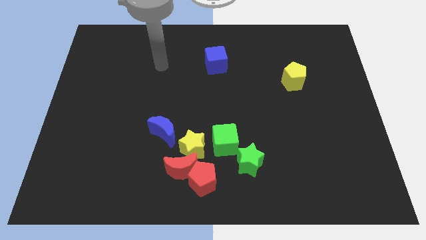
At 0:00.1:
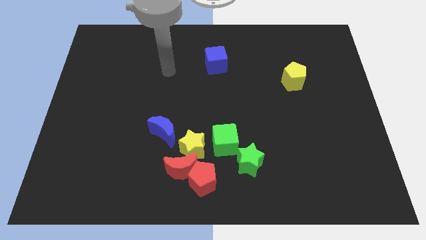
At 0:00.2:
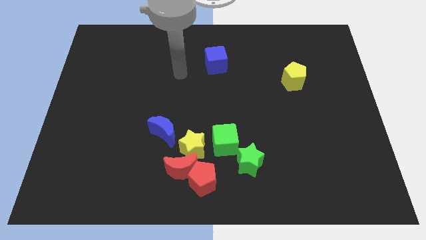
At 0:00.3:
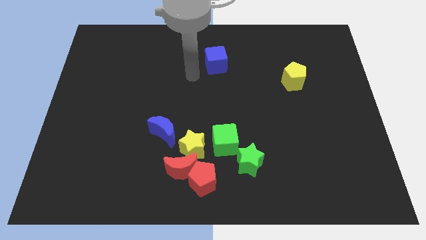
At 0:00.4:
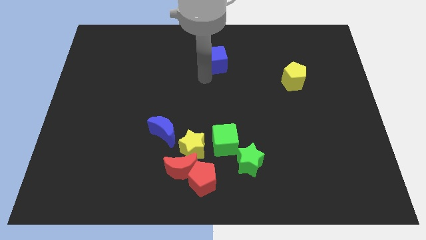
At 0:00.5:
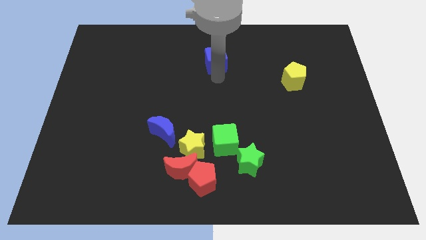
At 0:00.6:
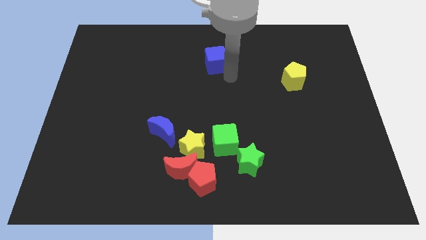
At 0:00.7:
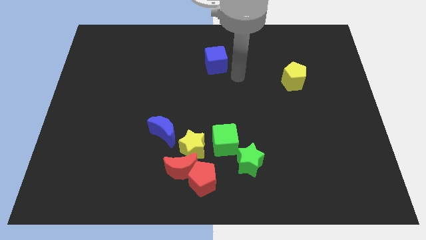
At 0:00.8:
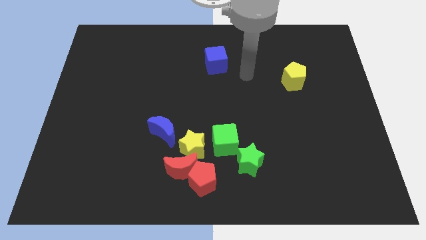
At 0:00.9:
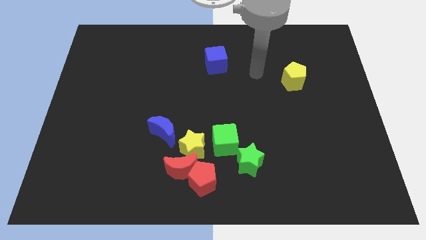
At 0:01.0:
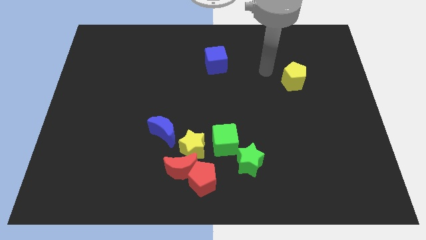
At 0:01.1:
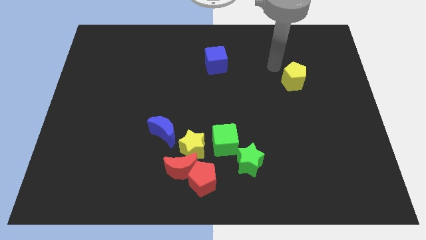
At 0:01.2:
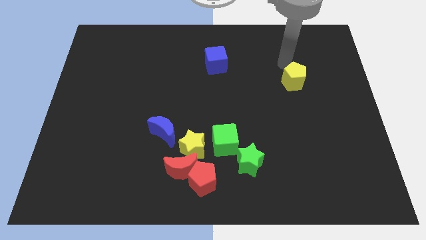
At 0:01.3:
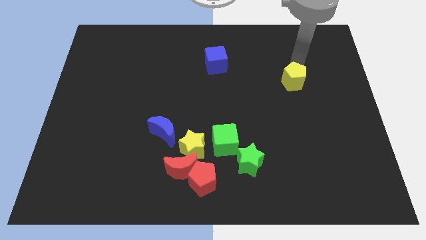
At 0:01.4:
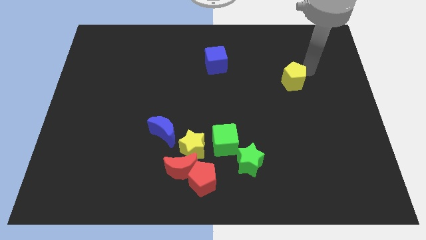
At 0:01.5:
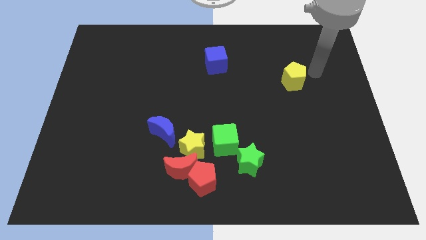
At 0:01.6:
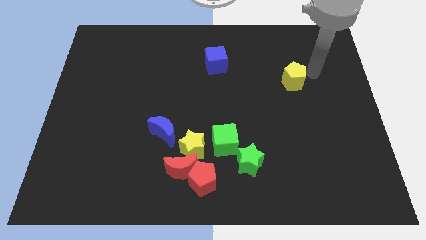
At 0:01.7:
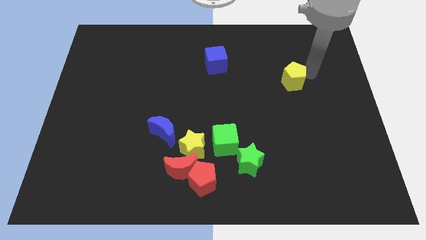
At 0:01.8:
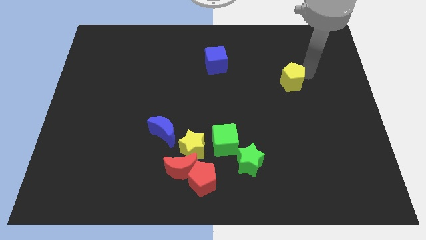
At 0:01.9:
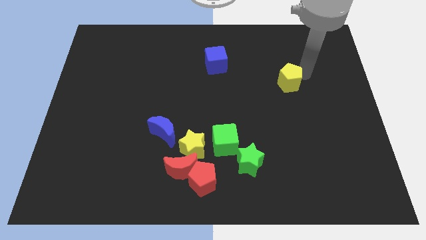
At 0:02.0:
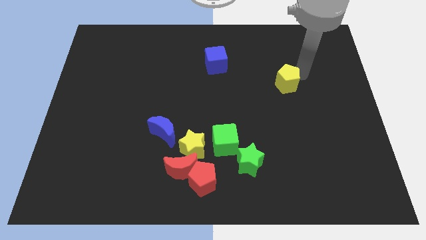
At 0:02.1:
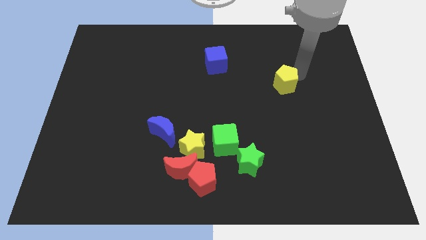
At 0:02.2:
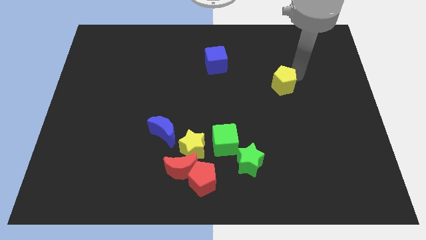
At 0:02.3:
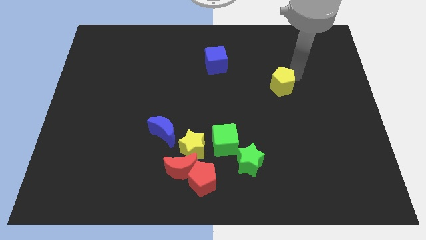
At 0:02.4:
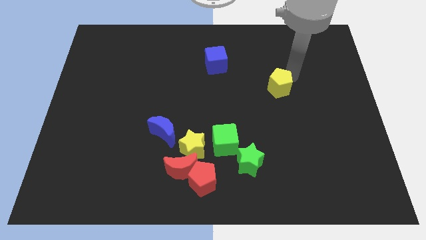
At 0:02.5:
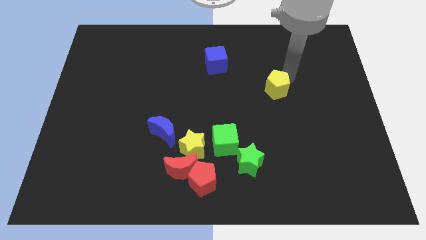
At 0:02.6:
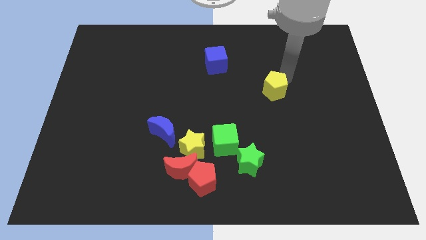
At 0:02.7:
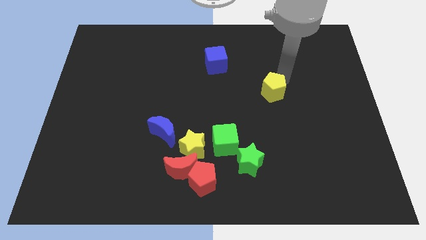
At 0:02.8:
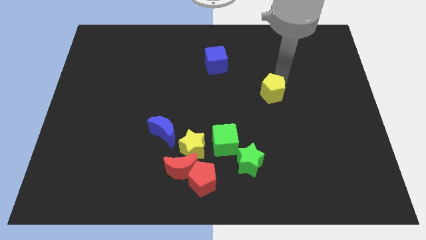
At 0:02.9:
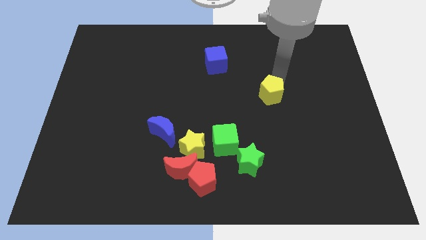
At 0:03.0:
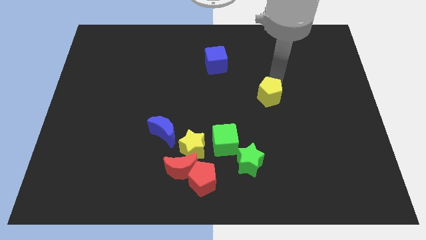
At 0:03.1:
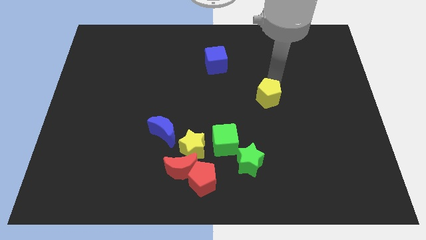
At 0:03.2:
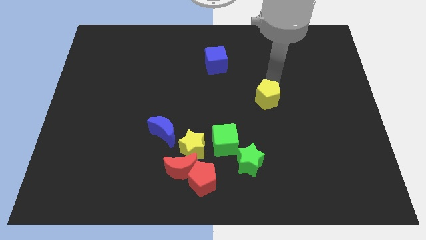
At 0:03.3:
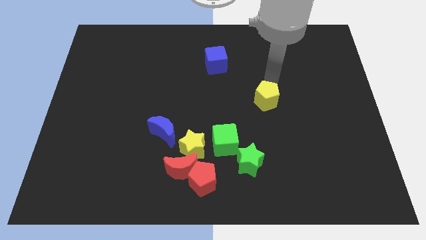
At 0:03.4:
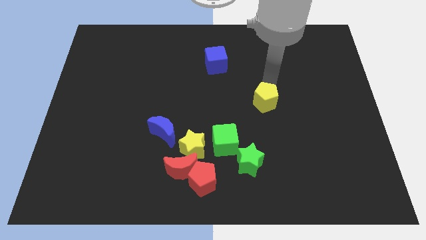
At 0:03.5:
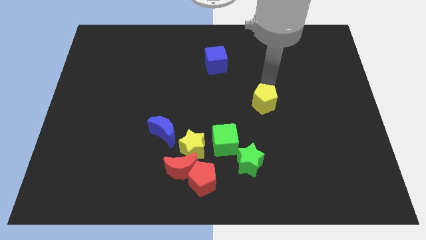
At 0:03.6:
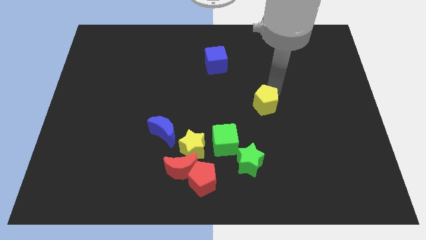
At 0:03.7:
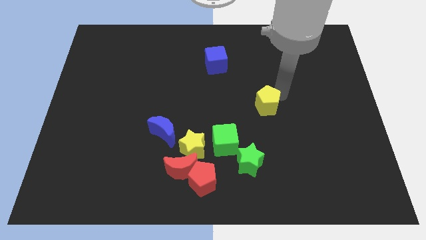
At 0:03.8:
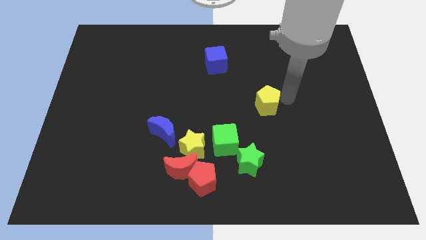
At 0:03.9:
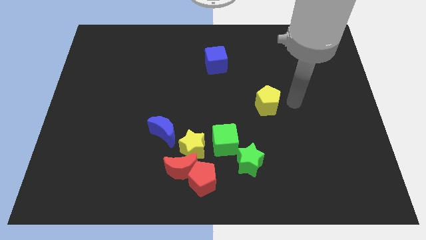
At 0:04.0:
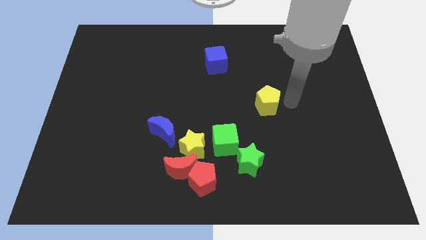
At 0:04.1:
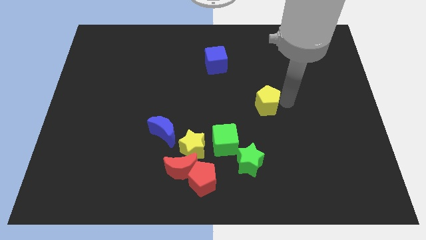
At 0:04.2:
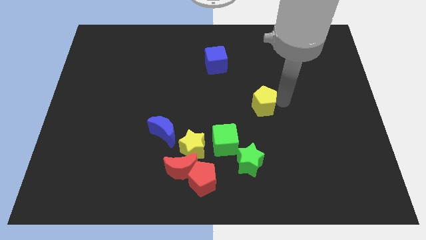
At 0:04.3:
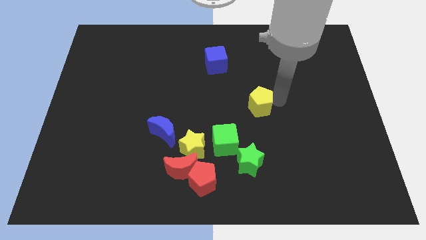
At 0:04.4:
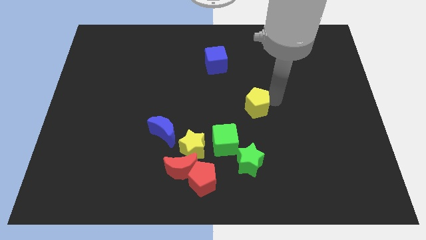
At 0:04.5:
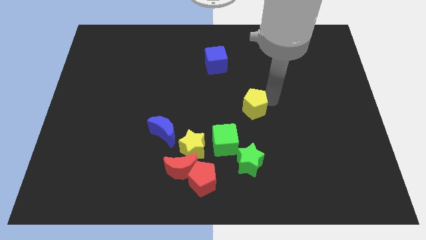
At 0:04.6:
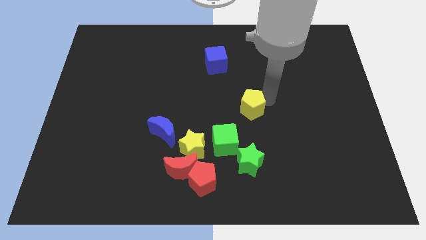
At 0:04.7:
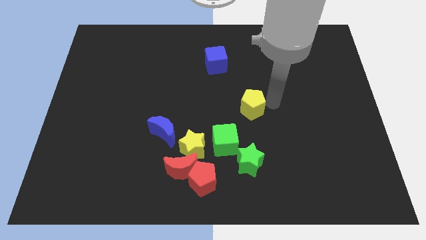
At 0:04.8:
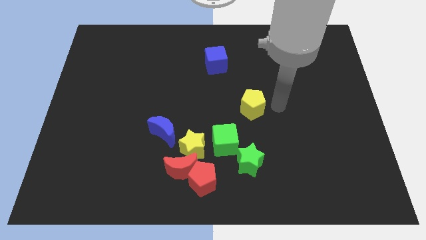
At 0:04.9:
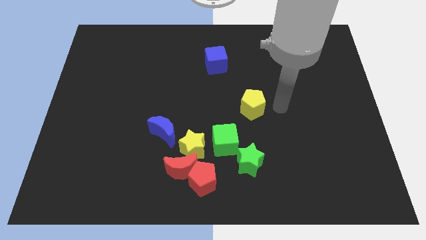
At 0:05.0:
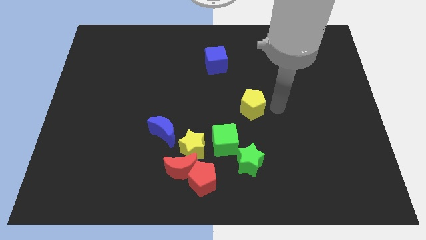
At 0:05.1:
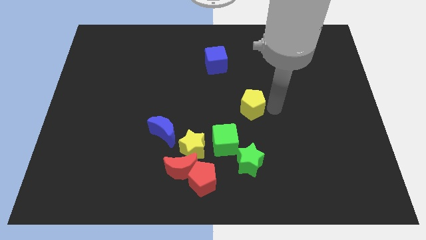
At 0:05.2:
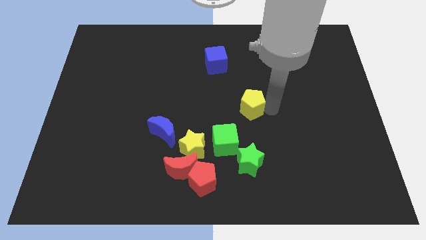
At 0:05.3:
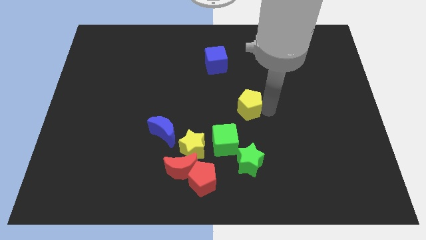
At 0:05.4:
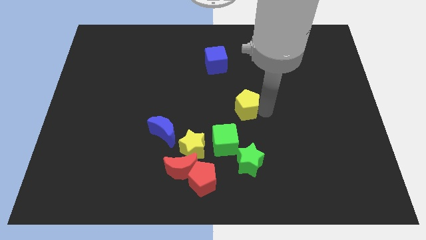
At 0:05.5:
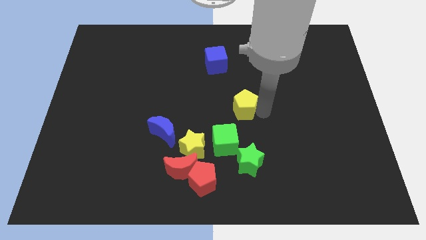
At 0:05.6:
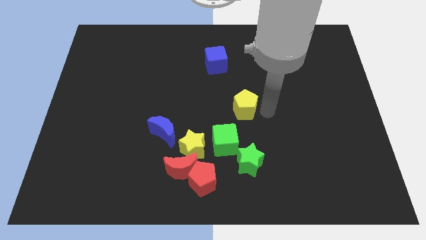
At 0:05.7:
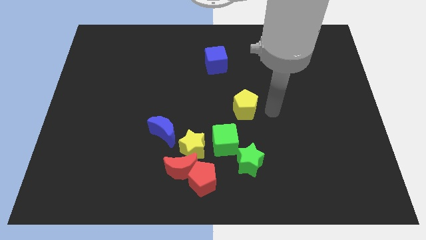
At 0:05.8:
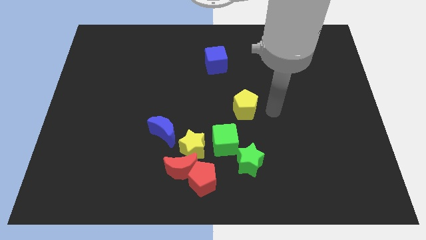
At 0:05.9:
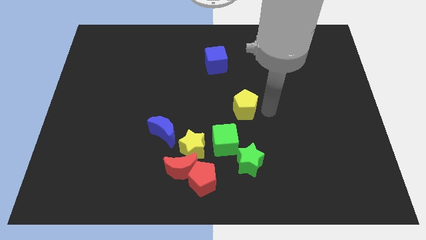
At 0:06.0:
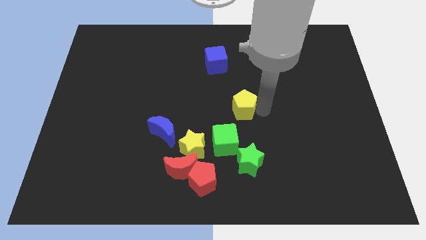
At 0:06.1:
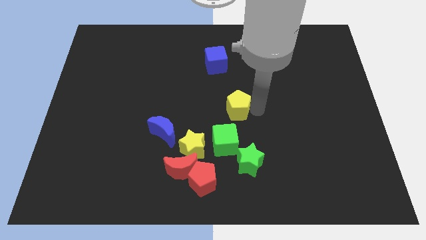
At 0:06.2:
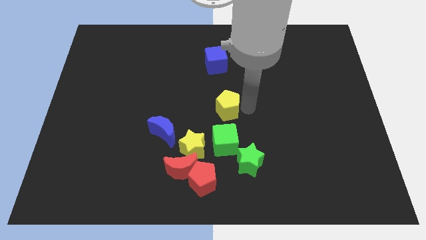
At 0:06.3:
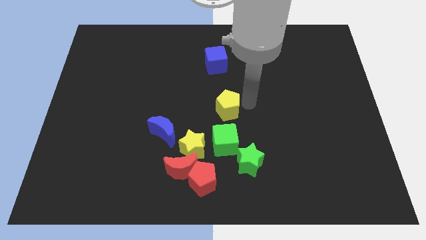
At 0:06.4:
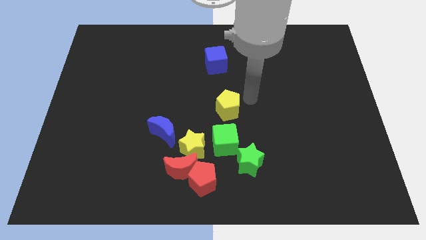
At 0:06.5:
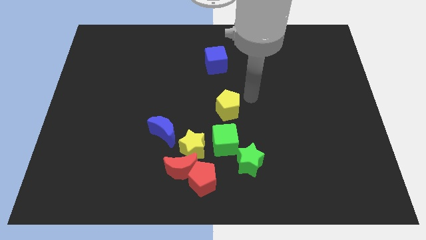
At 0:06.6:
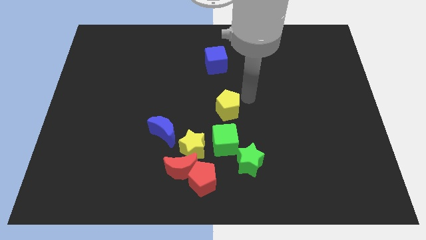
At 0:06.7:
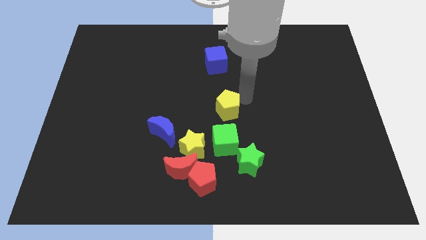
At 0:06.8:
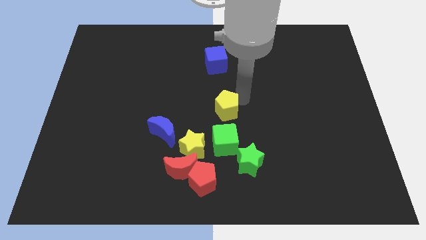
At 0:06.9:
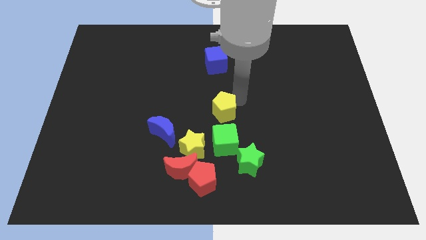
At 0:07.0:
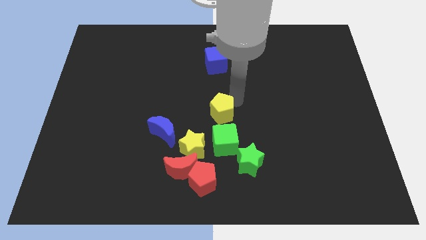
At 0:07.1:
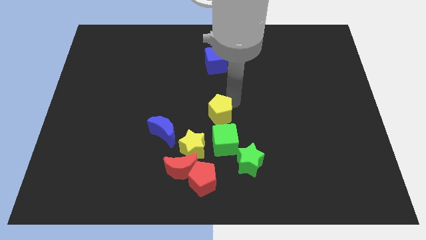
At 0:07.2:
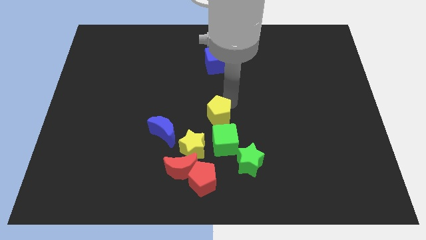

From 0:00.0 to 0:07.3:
slide the yellow pentagon to the top left of the green cube
